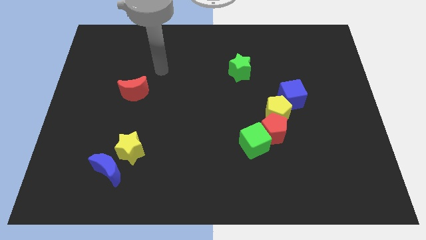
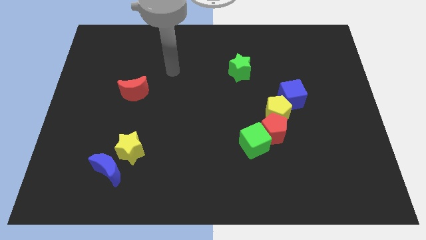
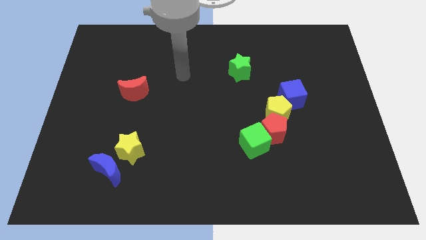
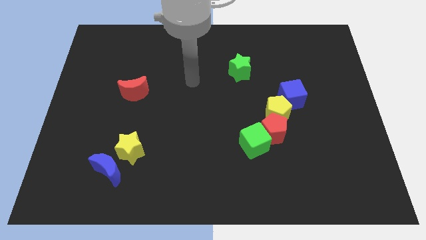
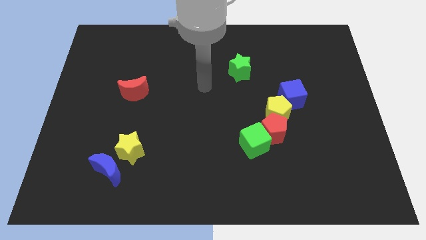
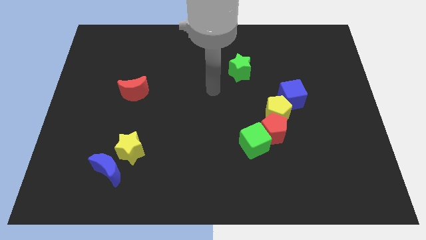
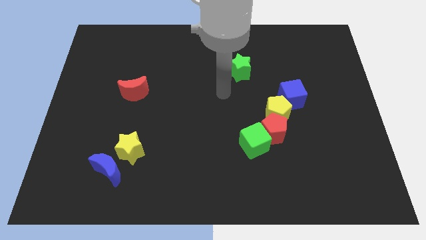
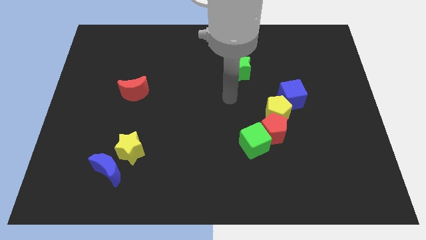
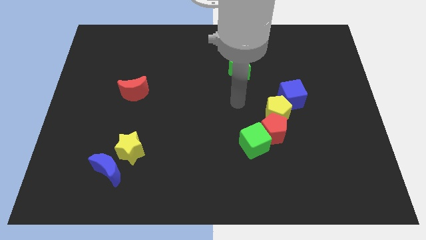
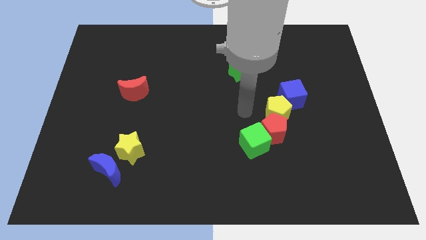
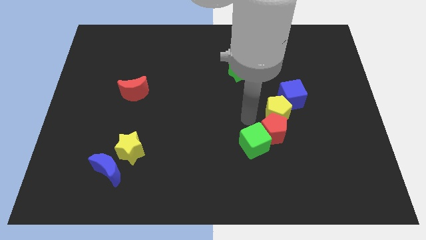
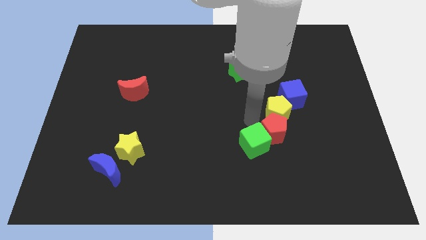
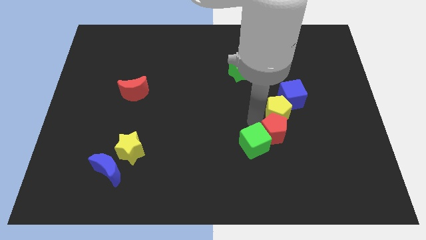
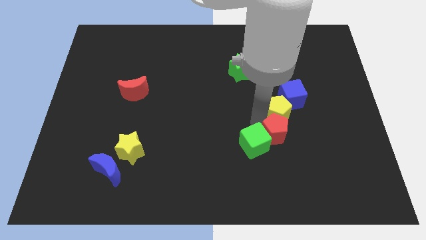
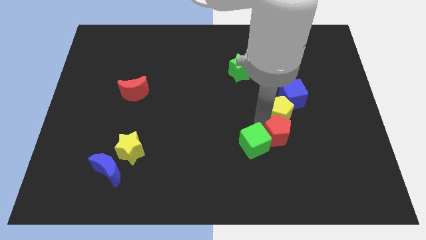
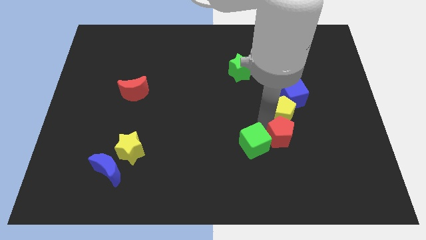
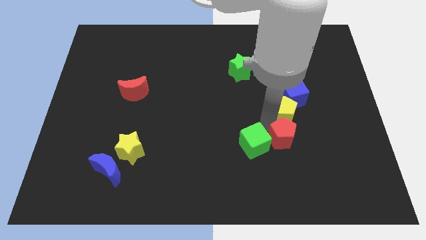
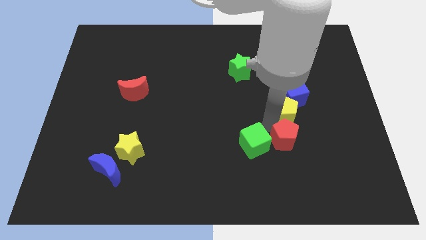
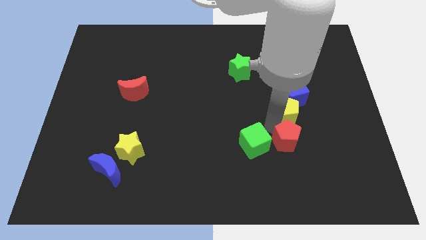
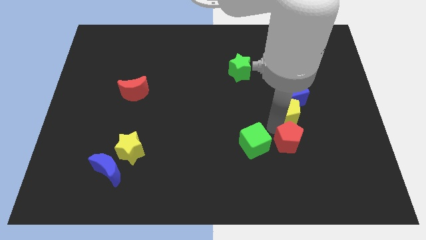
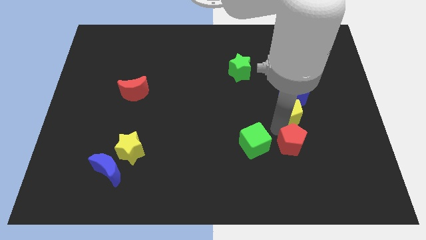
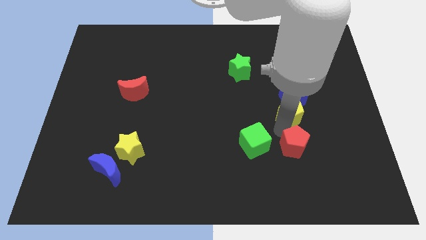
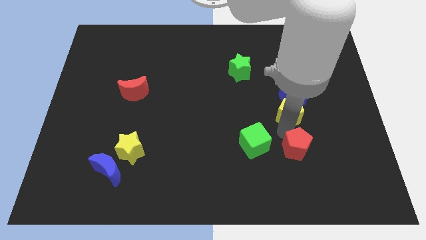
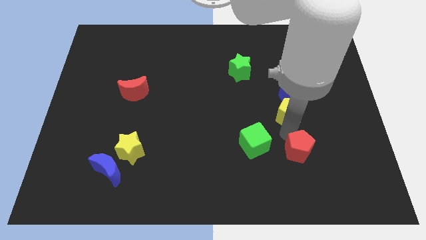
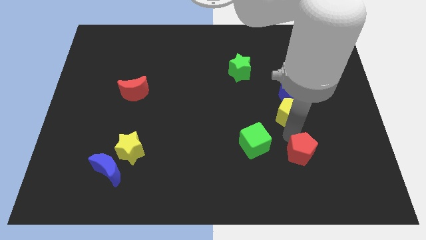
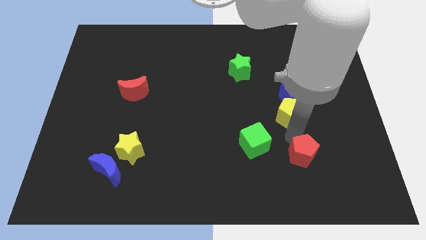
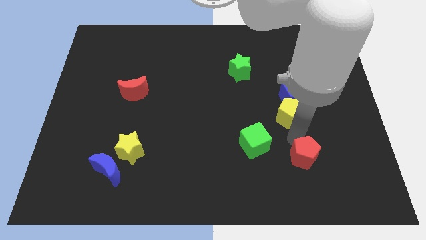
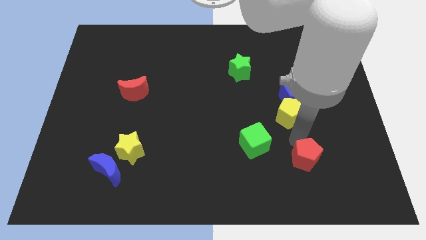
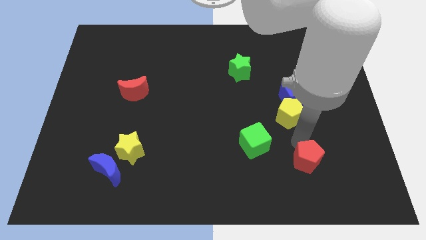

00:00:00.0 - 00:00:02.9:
pull the red pentagon apart from the green cube and yellow pentagon

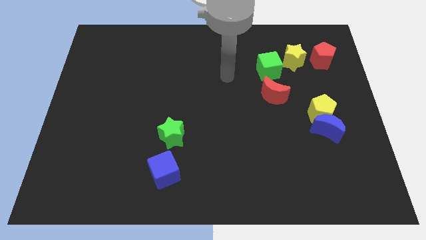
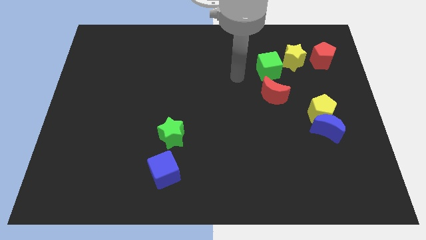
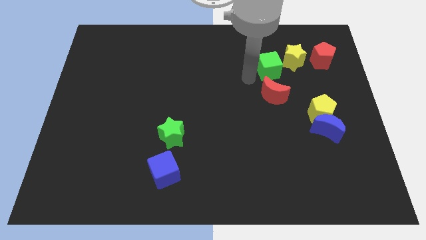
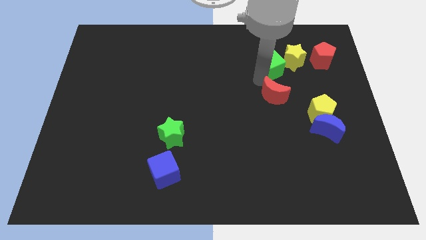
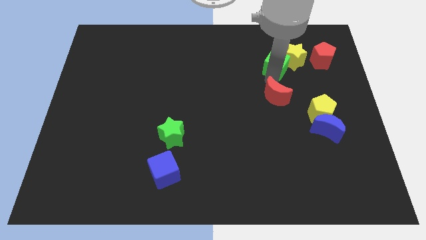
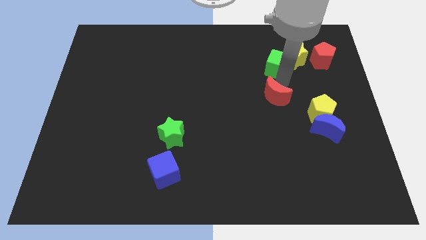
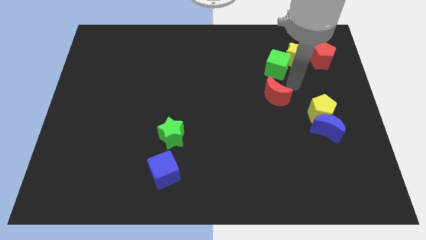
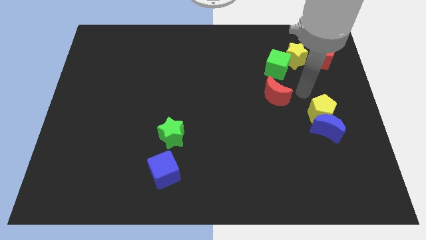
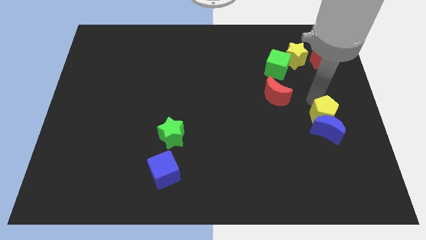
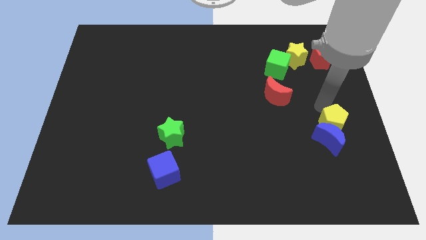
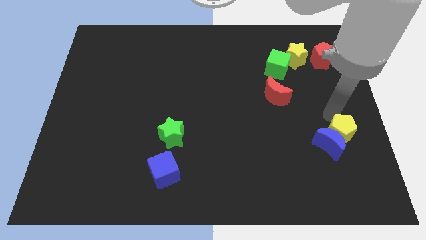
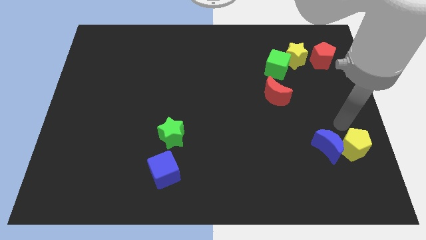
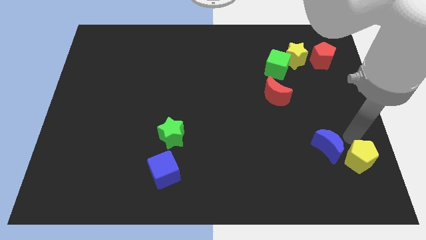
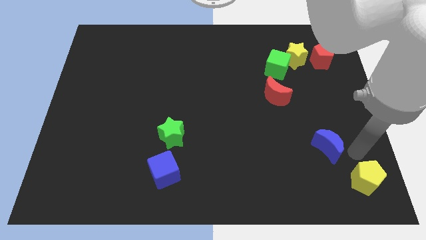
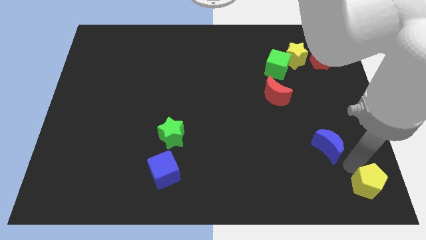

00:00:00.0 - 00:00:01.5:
move the blue moon away from the yellow pentagon

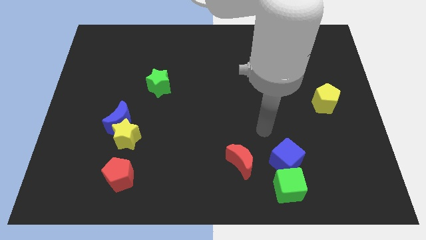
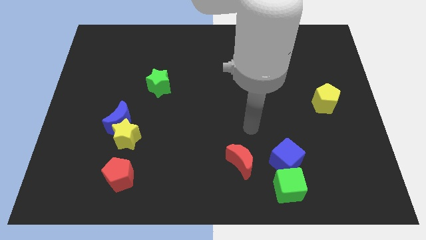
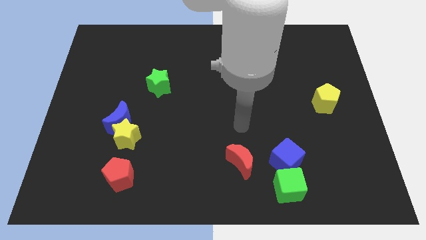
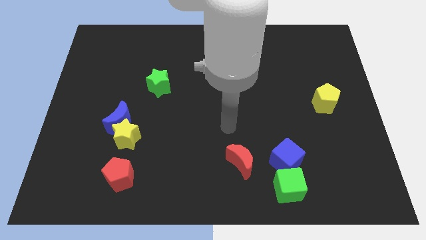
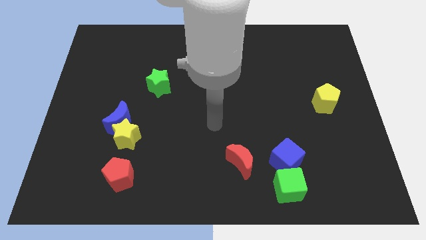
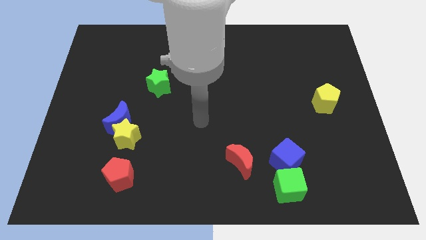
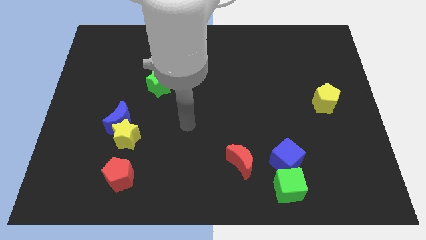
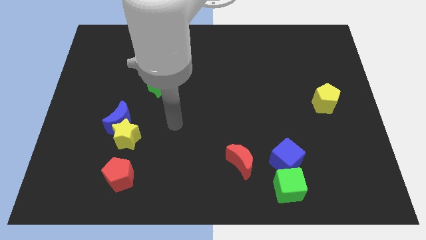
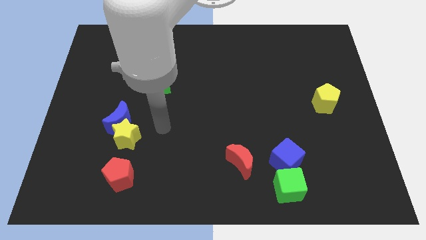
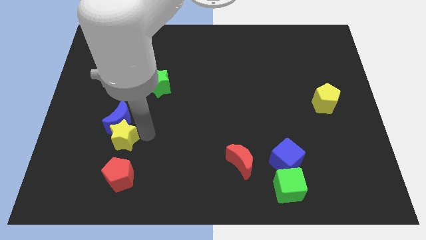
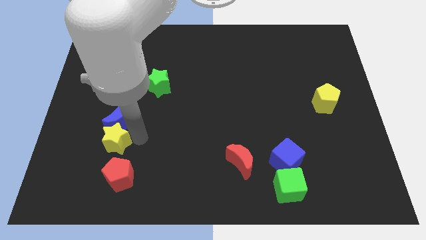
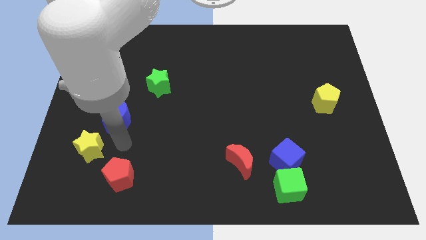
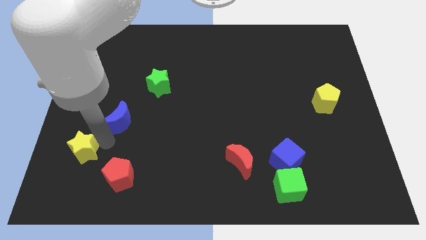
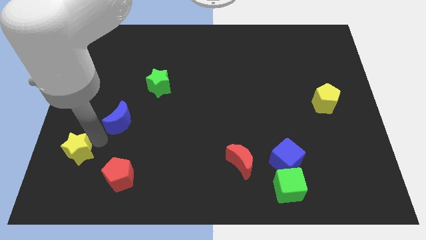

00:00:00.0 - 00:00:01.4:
pull the blue moon apart from the yellow star

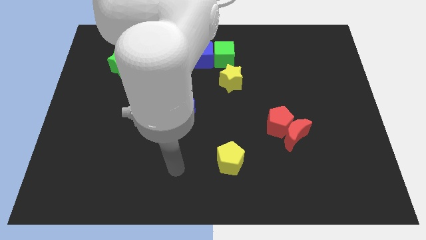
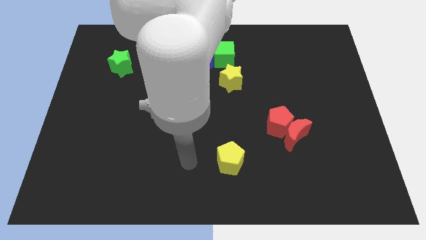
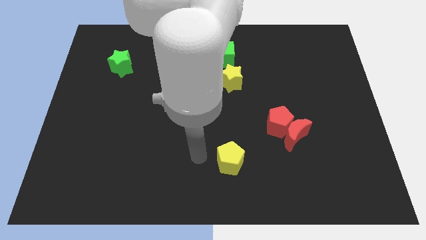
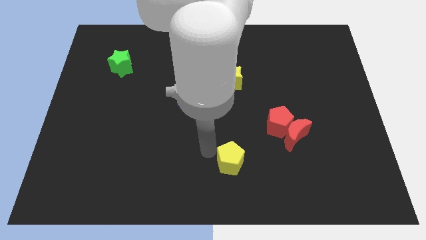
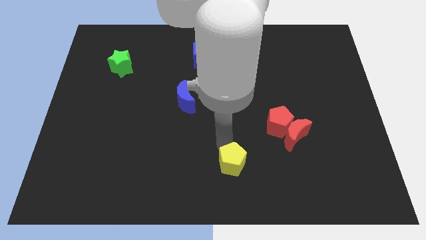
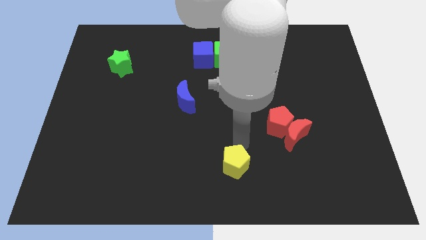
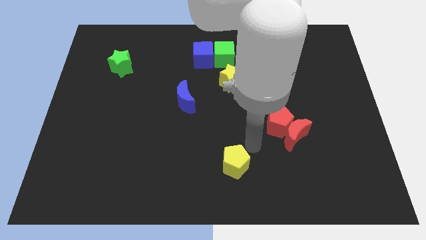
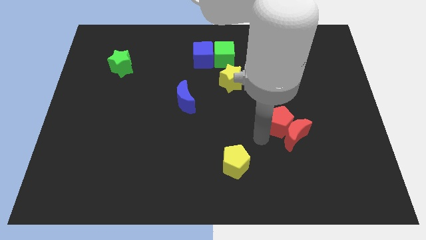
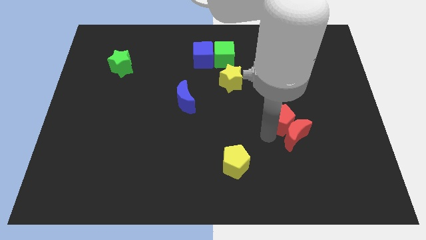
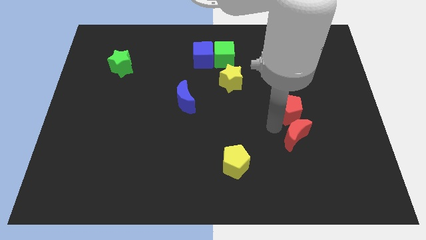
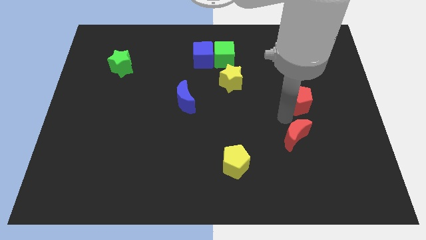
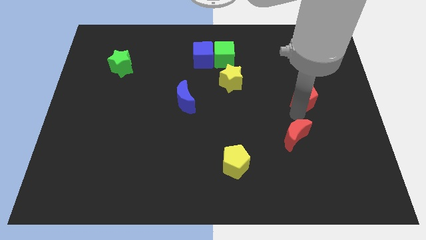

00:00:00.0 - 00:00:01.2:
pull the red moon apart from the red pentagon

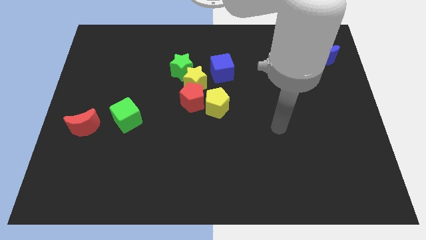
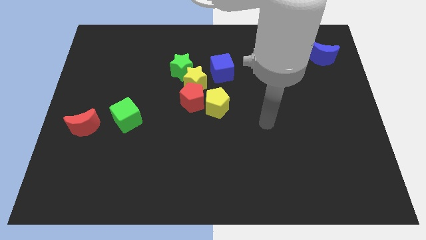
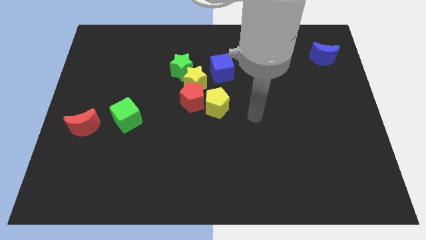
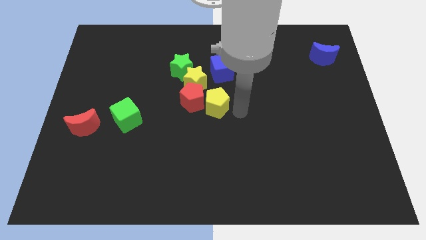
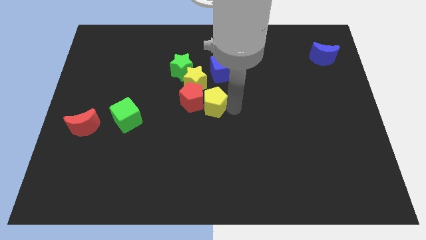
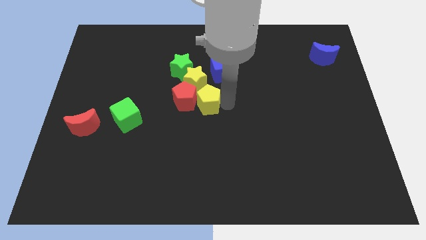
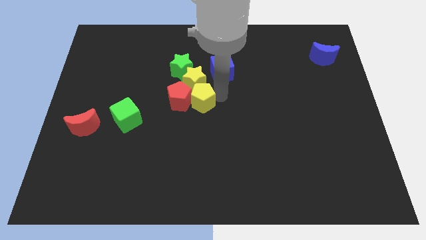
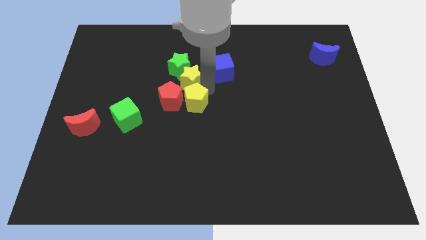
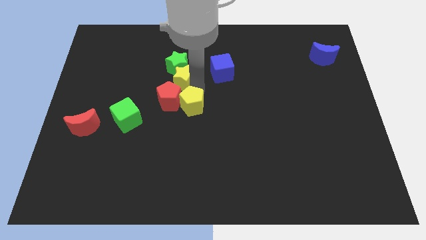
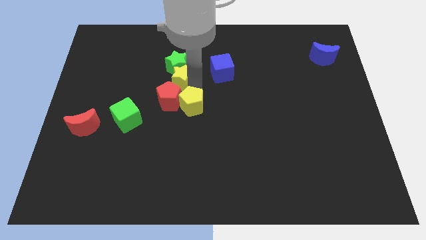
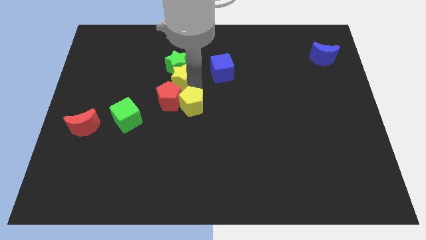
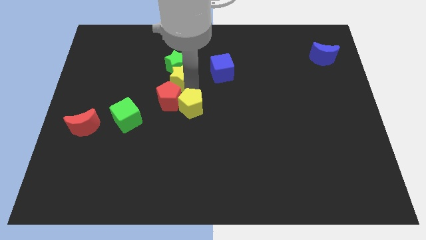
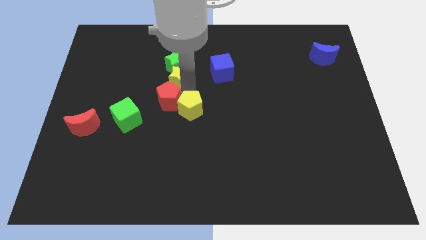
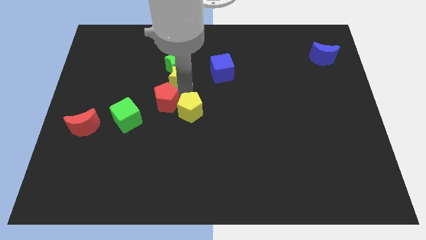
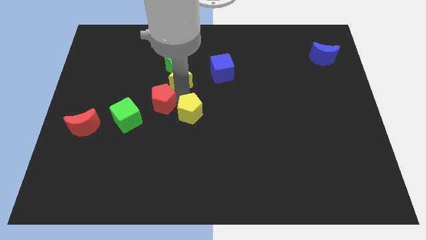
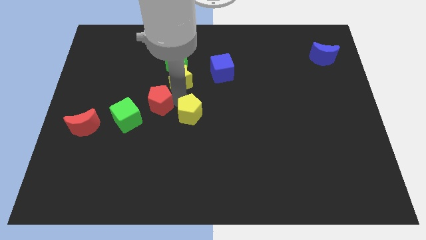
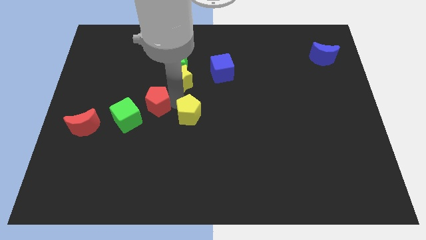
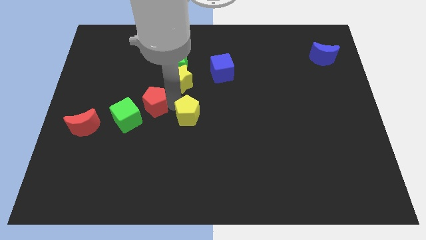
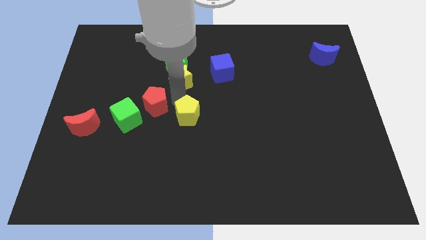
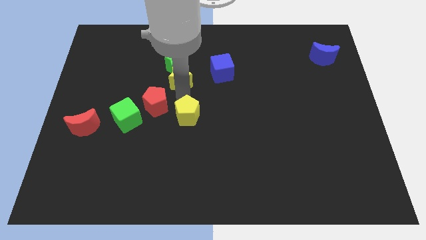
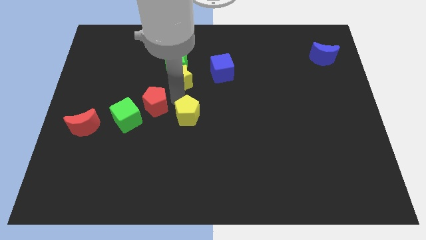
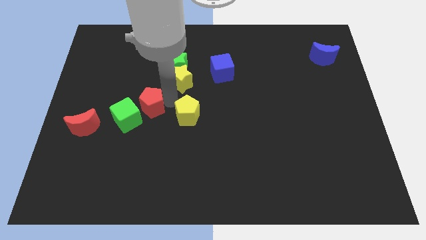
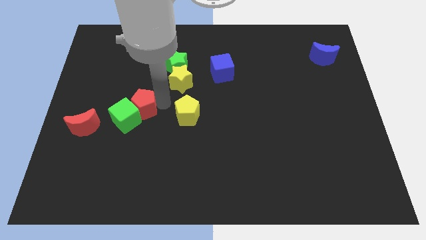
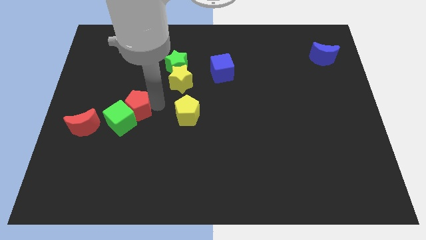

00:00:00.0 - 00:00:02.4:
pull the red pentagon apart from the yellow star and yellow pentagon

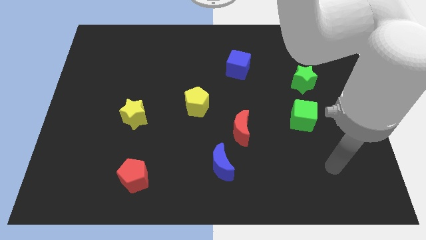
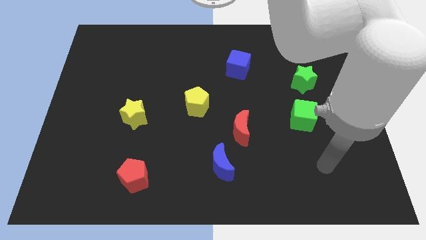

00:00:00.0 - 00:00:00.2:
move the red moon away from the blue moon
